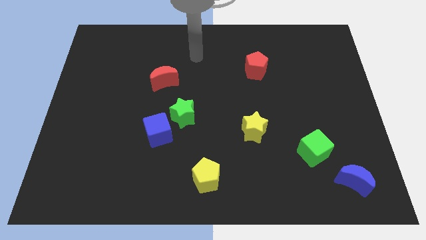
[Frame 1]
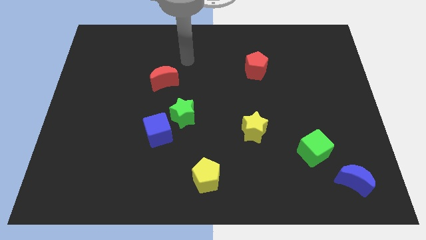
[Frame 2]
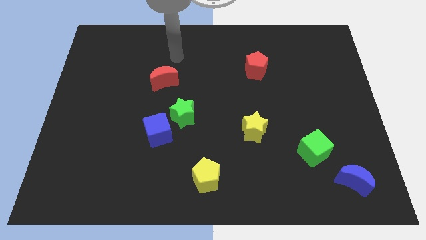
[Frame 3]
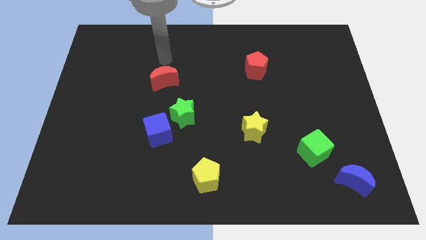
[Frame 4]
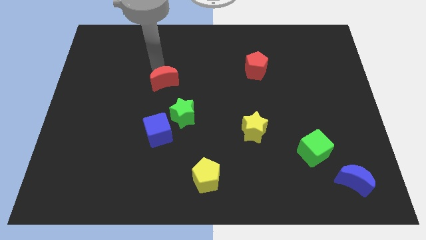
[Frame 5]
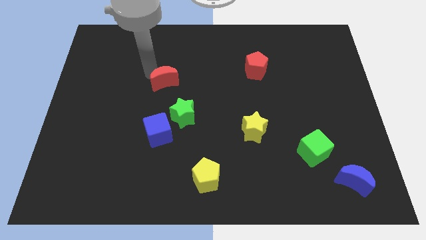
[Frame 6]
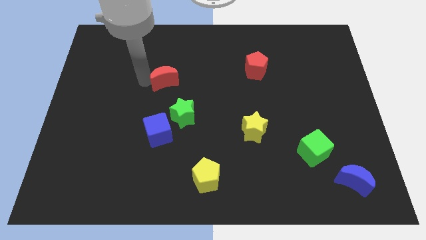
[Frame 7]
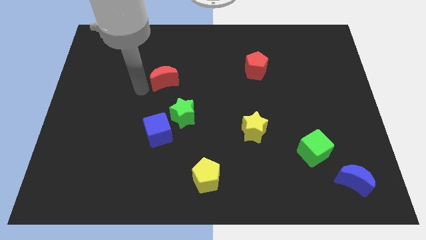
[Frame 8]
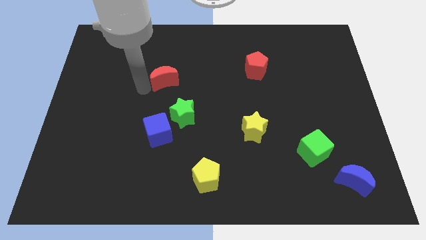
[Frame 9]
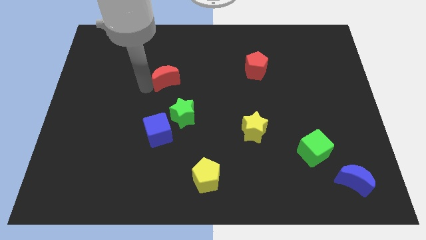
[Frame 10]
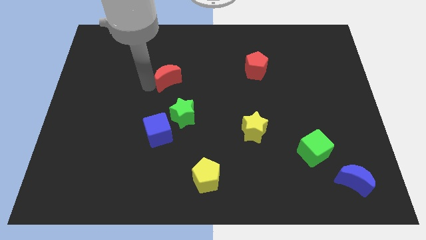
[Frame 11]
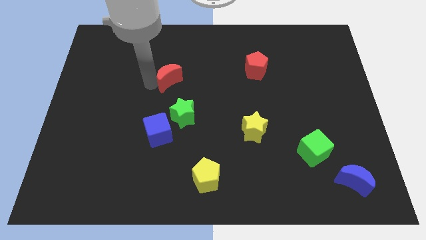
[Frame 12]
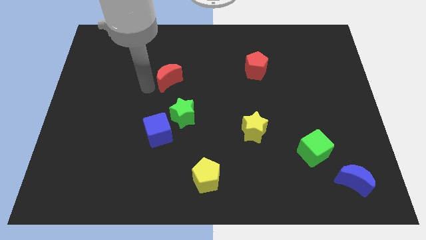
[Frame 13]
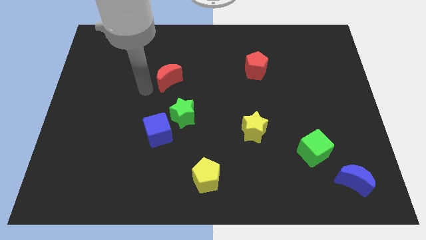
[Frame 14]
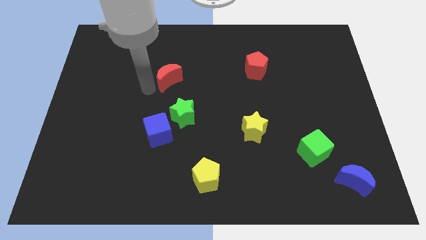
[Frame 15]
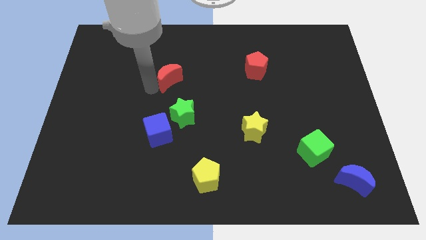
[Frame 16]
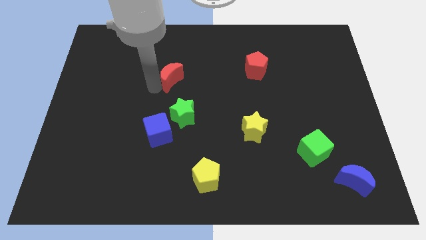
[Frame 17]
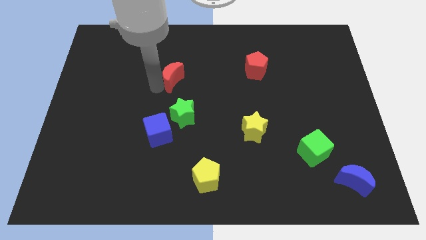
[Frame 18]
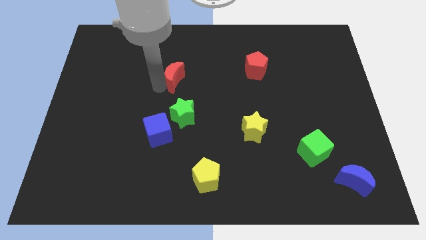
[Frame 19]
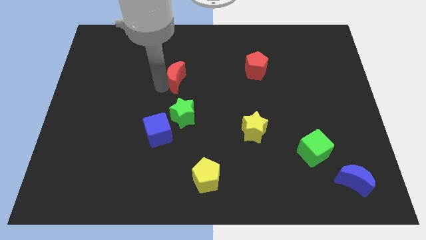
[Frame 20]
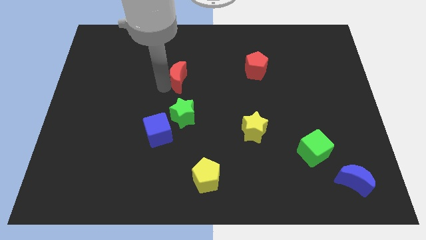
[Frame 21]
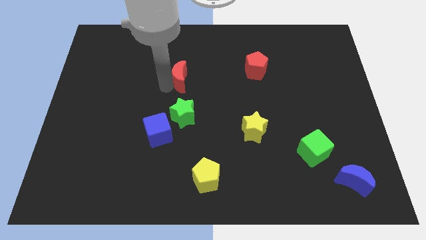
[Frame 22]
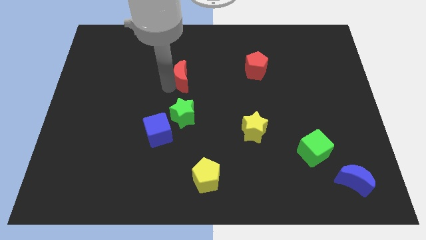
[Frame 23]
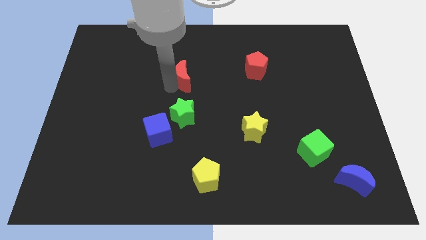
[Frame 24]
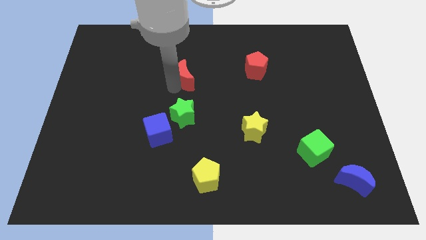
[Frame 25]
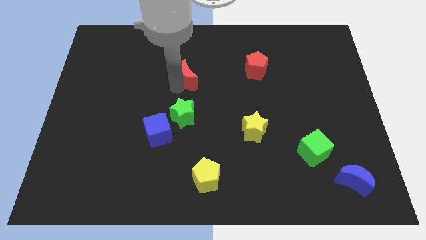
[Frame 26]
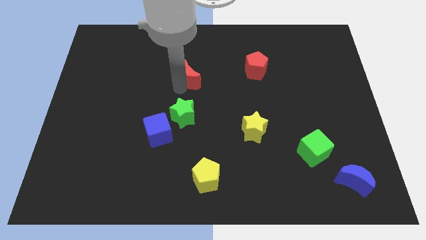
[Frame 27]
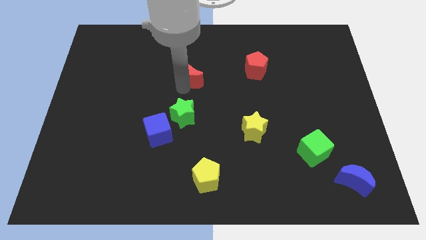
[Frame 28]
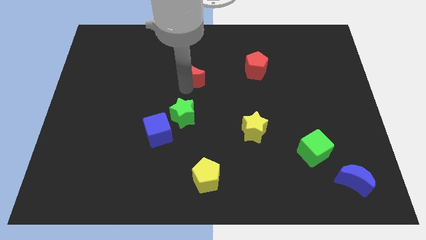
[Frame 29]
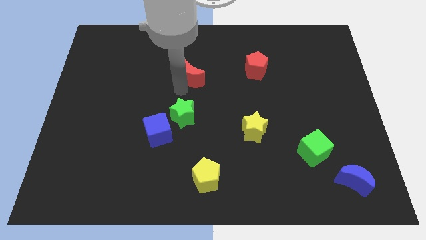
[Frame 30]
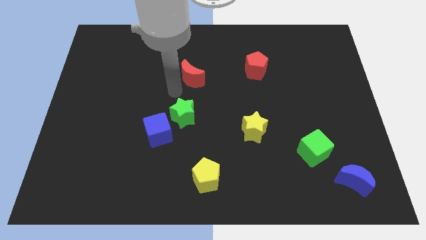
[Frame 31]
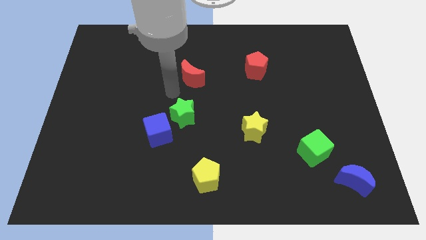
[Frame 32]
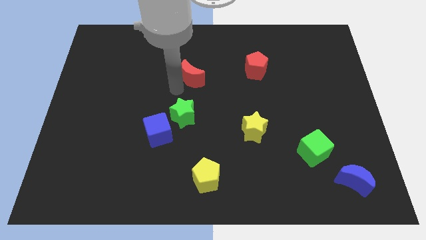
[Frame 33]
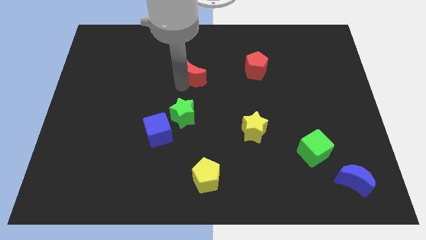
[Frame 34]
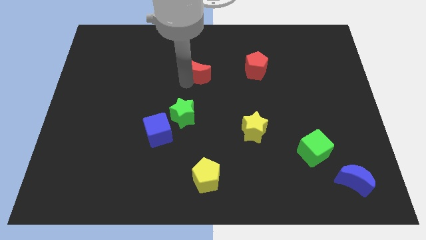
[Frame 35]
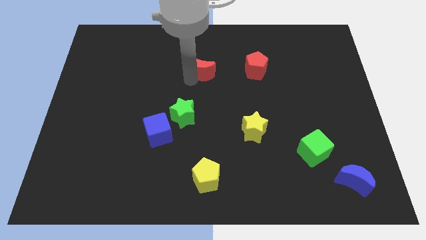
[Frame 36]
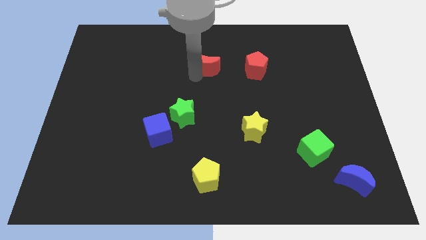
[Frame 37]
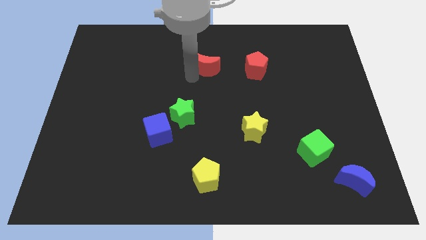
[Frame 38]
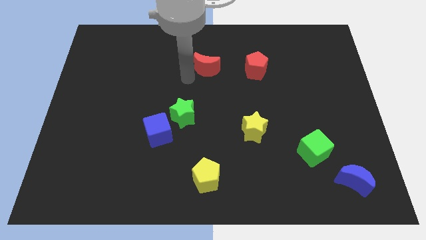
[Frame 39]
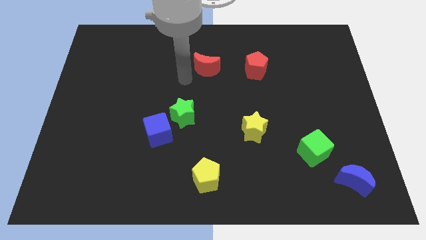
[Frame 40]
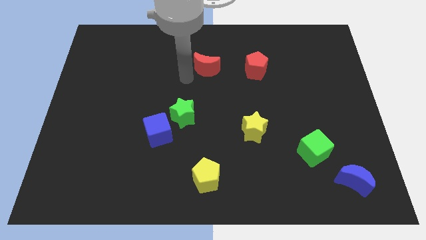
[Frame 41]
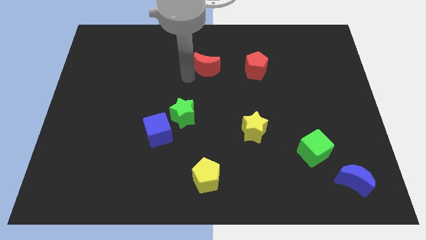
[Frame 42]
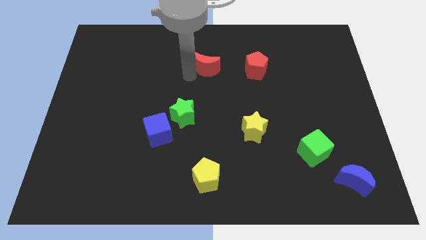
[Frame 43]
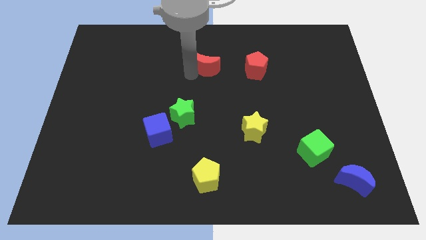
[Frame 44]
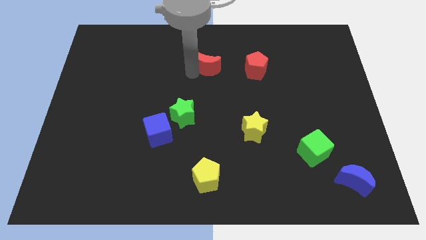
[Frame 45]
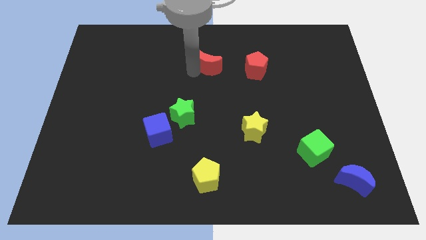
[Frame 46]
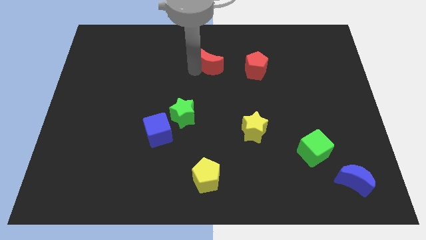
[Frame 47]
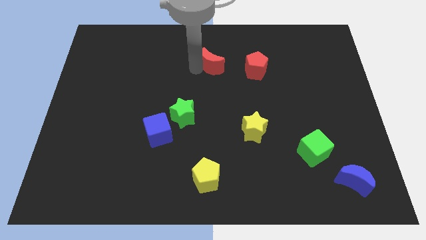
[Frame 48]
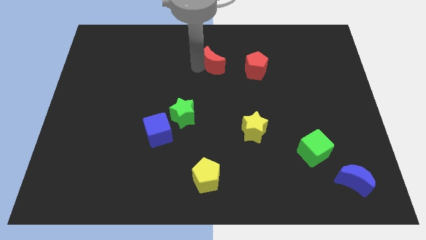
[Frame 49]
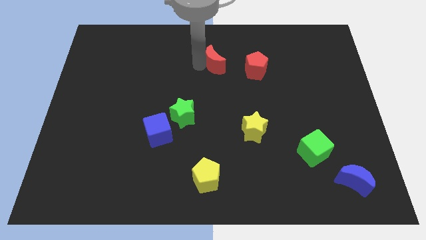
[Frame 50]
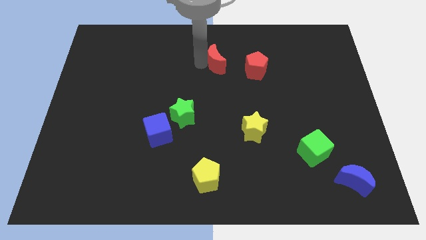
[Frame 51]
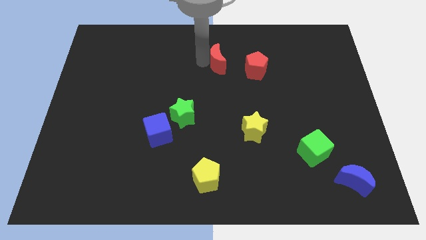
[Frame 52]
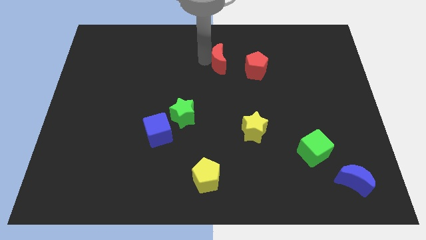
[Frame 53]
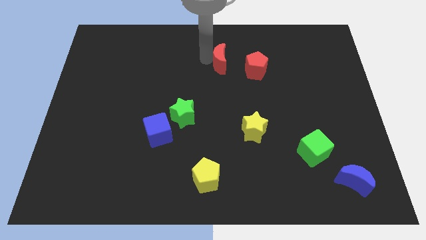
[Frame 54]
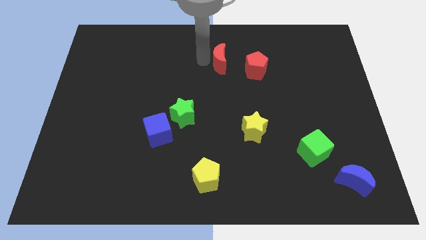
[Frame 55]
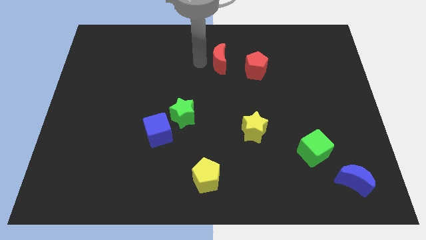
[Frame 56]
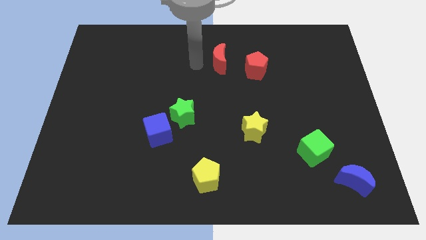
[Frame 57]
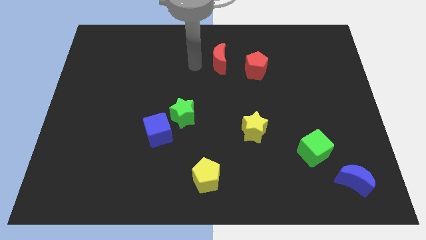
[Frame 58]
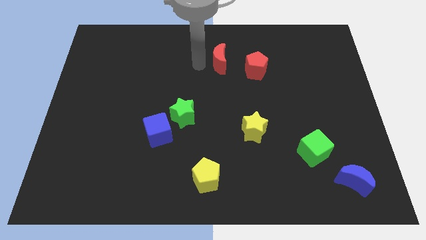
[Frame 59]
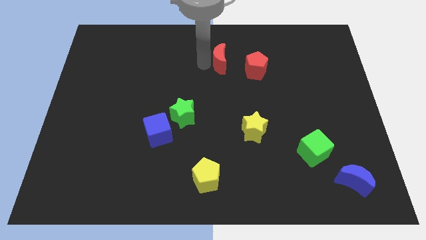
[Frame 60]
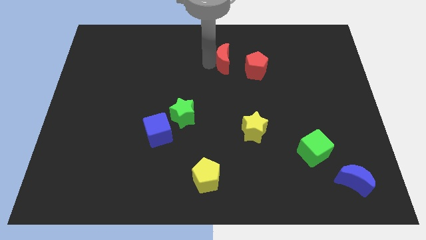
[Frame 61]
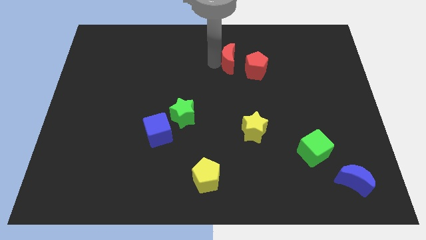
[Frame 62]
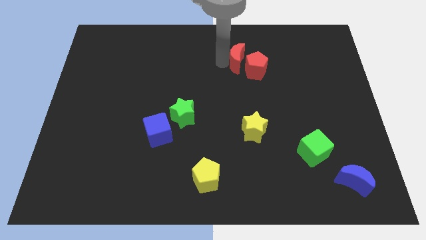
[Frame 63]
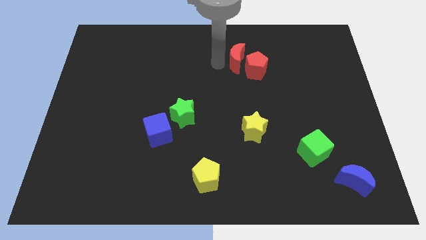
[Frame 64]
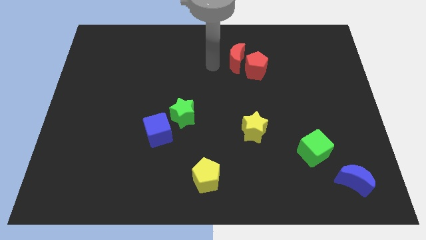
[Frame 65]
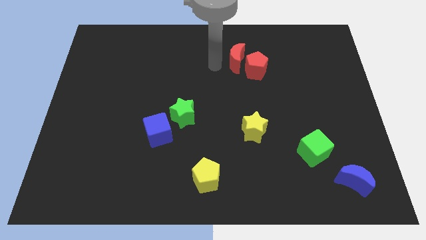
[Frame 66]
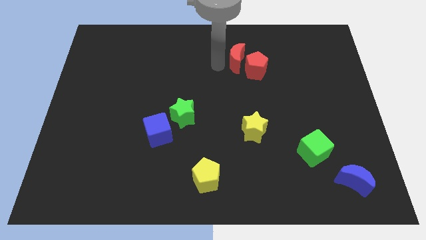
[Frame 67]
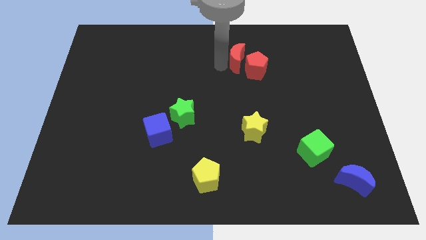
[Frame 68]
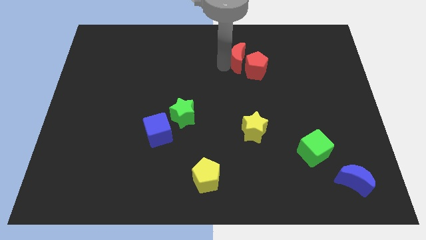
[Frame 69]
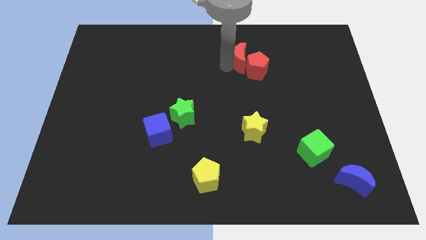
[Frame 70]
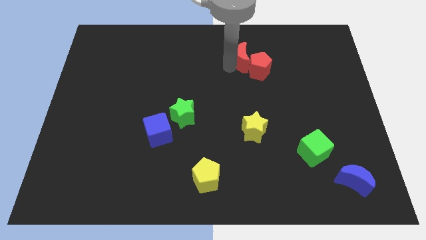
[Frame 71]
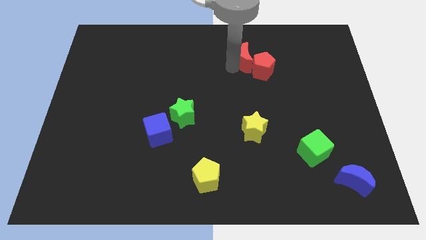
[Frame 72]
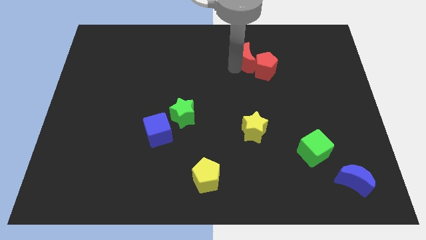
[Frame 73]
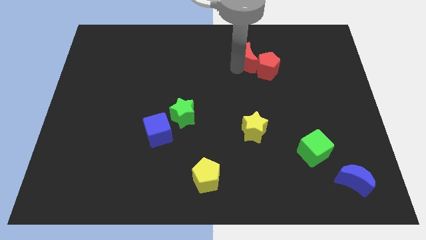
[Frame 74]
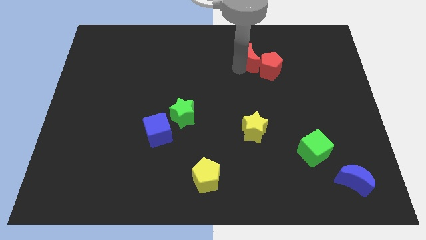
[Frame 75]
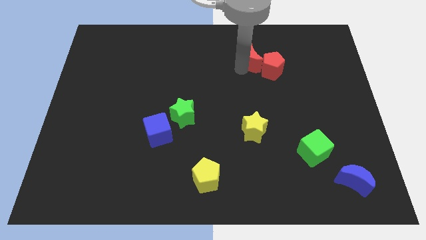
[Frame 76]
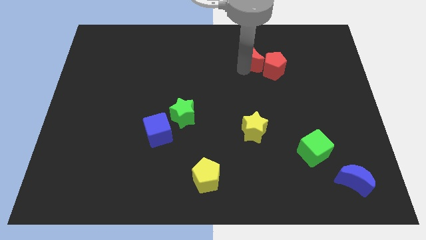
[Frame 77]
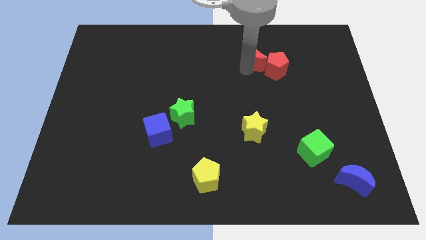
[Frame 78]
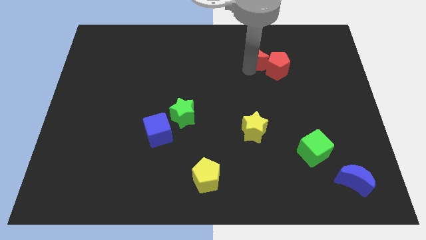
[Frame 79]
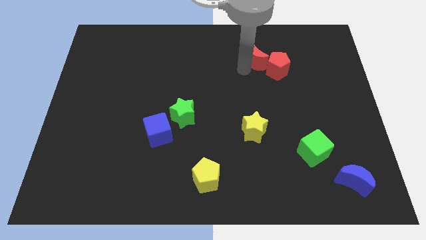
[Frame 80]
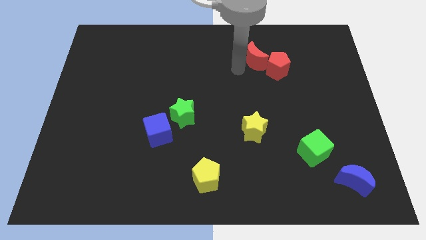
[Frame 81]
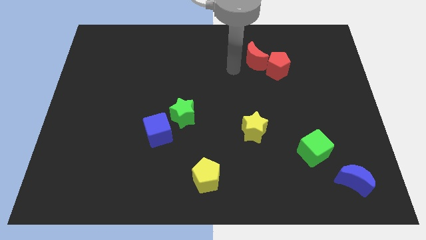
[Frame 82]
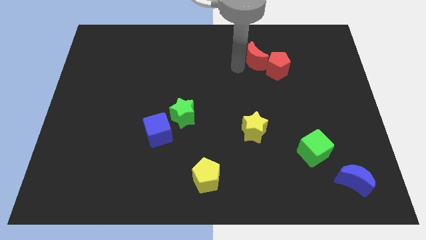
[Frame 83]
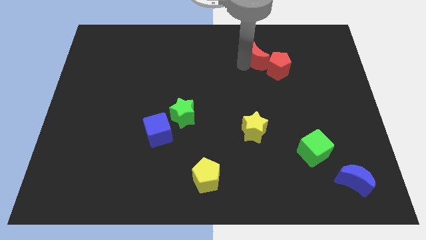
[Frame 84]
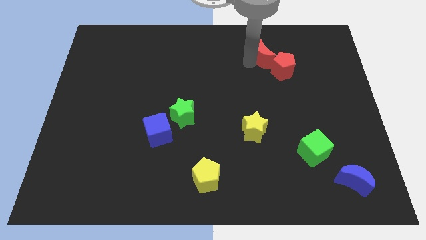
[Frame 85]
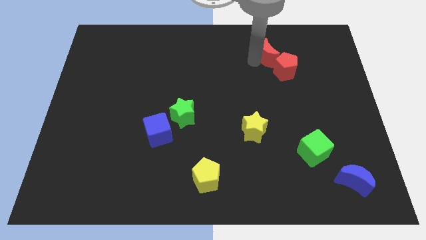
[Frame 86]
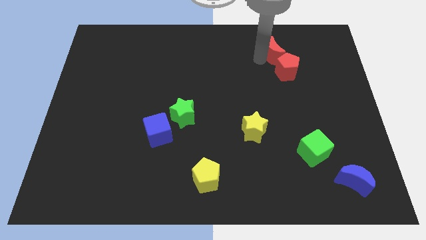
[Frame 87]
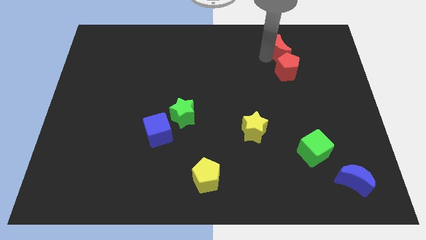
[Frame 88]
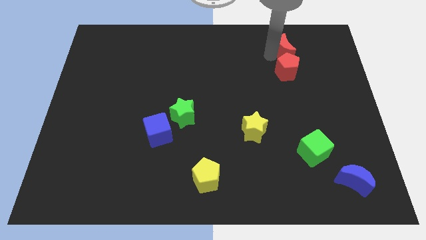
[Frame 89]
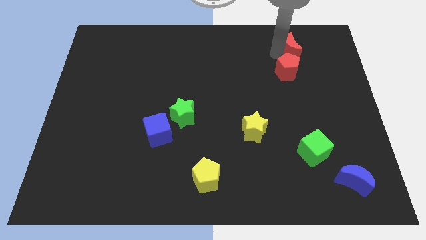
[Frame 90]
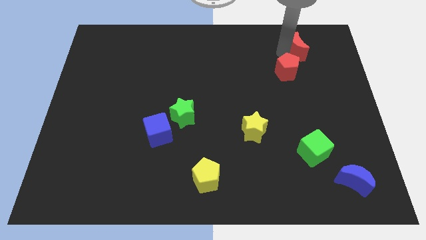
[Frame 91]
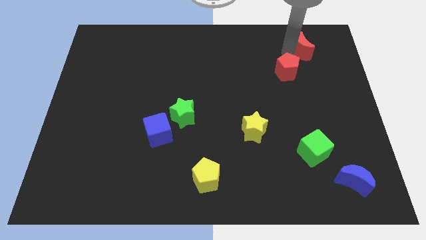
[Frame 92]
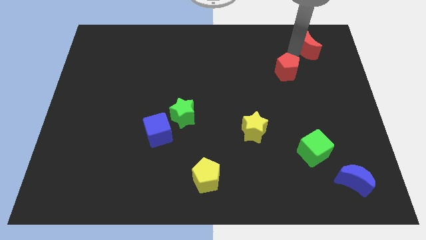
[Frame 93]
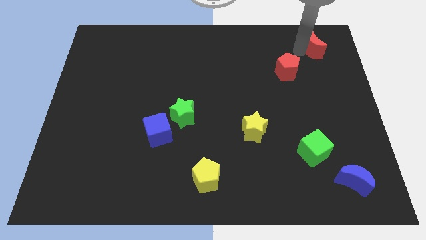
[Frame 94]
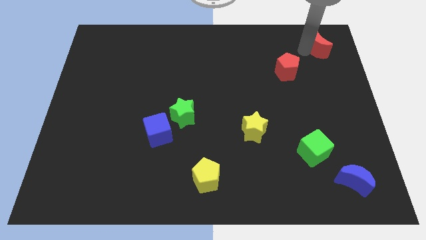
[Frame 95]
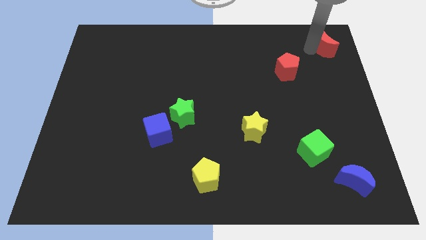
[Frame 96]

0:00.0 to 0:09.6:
move the red moon to the top right corner
